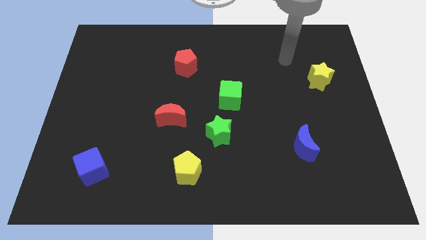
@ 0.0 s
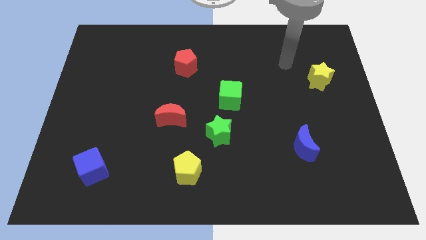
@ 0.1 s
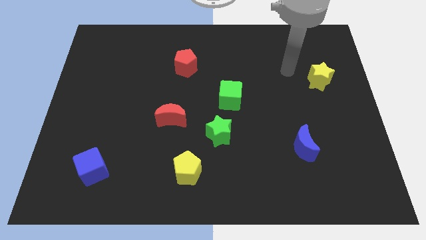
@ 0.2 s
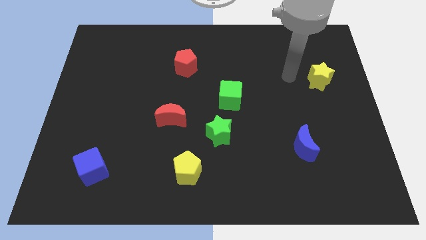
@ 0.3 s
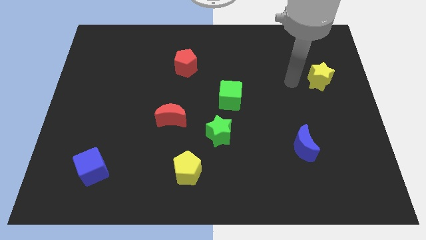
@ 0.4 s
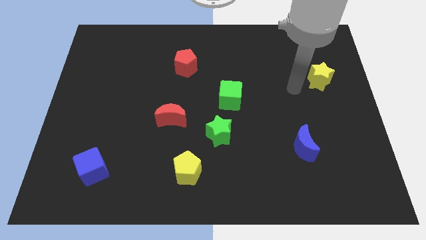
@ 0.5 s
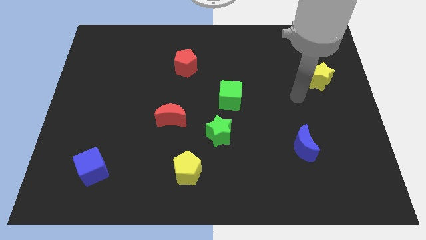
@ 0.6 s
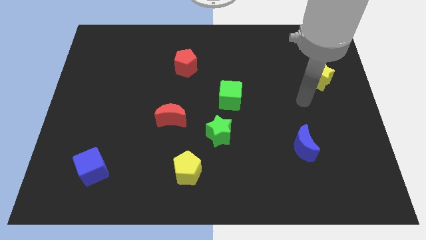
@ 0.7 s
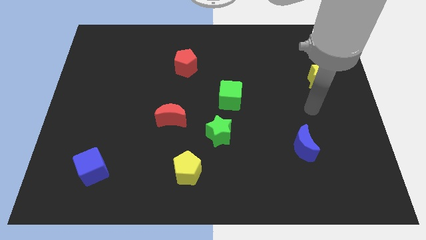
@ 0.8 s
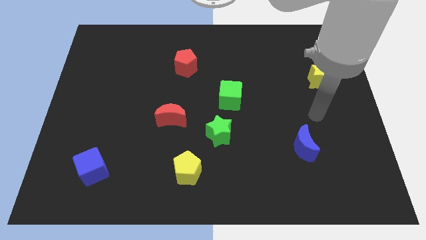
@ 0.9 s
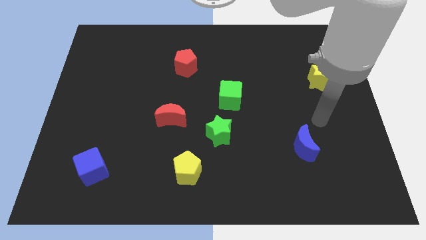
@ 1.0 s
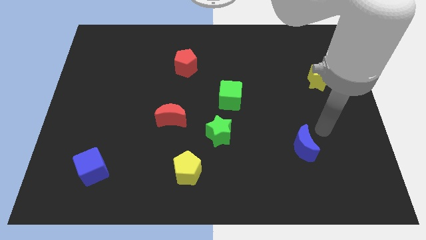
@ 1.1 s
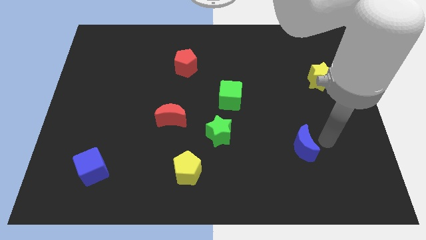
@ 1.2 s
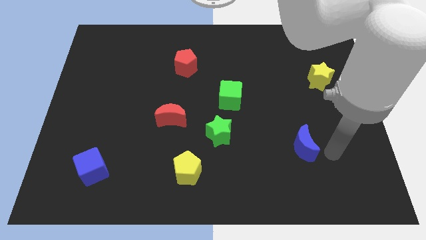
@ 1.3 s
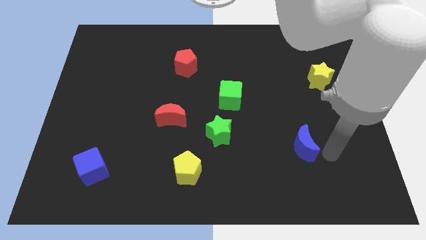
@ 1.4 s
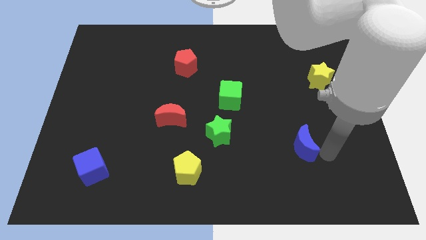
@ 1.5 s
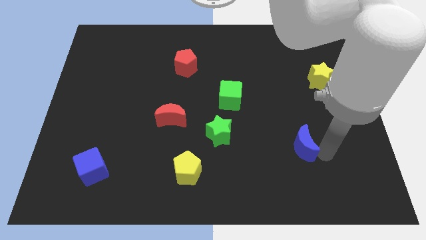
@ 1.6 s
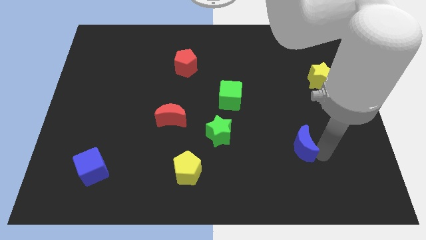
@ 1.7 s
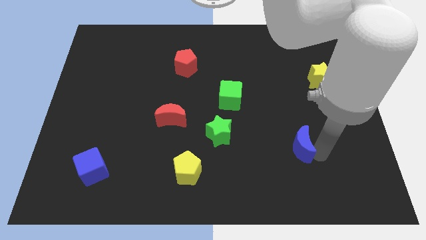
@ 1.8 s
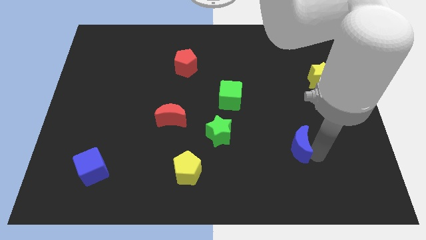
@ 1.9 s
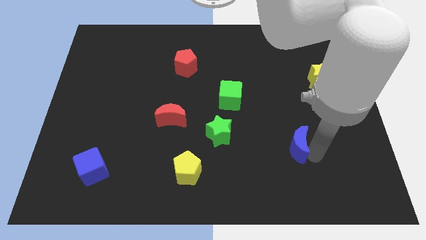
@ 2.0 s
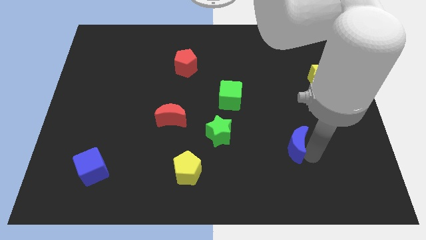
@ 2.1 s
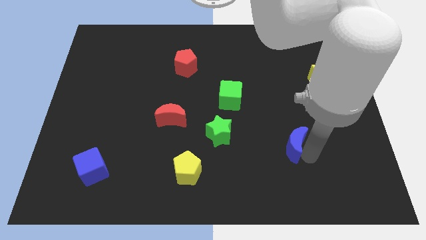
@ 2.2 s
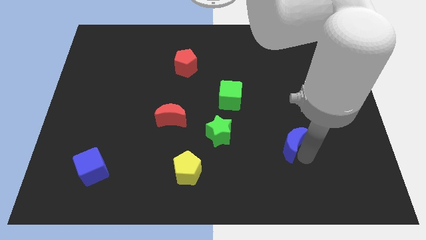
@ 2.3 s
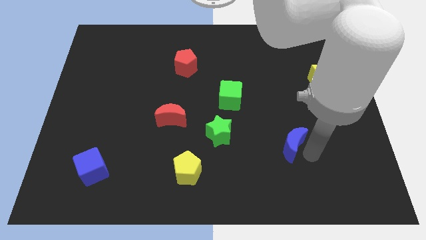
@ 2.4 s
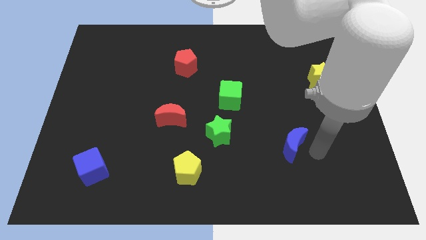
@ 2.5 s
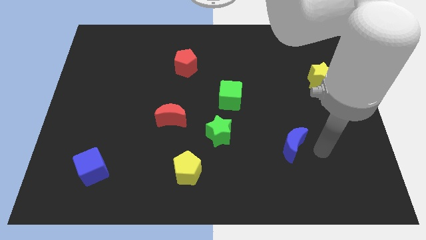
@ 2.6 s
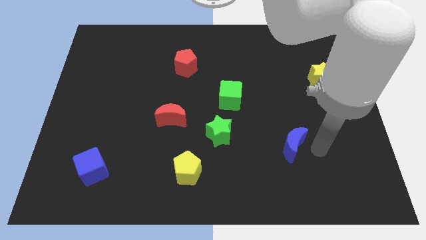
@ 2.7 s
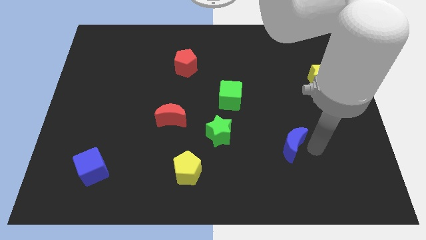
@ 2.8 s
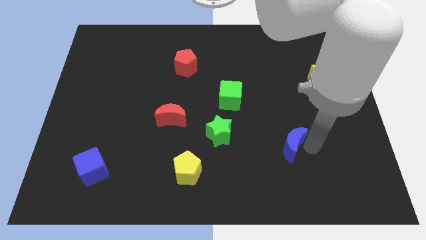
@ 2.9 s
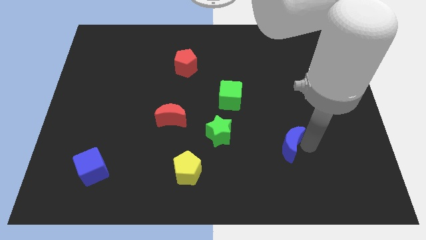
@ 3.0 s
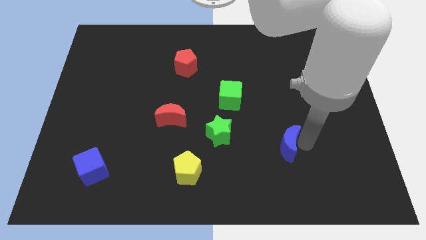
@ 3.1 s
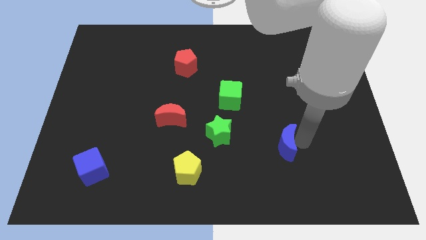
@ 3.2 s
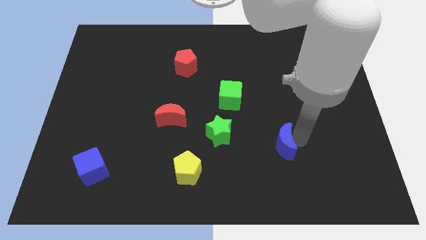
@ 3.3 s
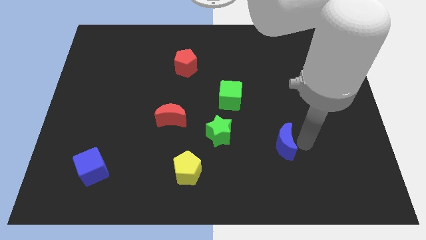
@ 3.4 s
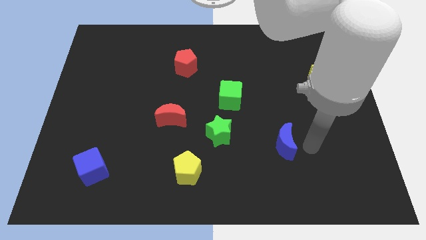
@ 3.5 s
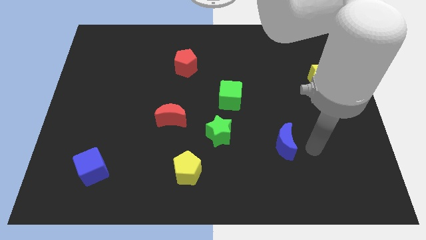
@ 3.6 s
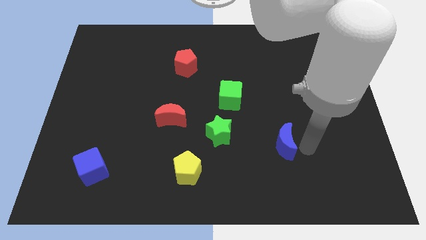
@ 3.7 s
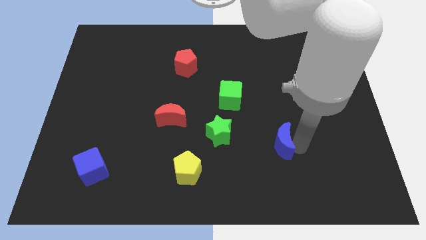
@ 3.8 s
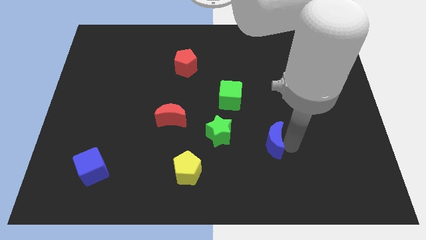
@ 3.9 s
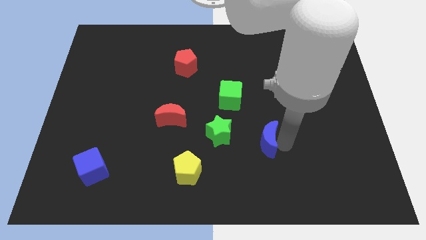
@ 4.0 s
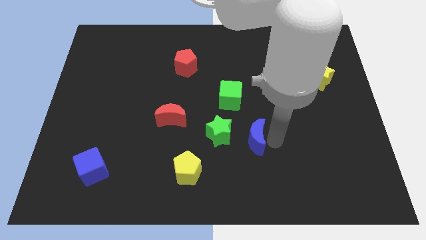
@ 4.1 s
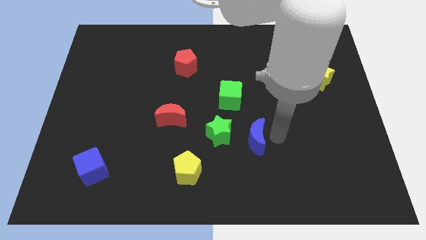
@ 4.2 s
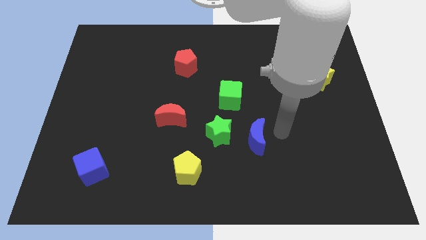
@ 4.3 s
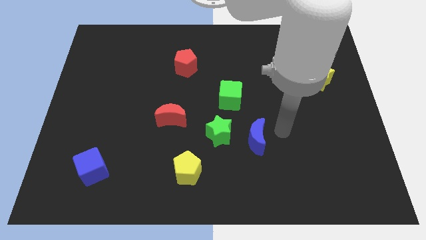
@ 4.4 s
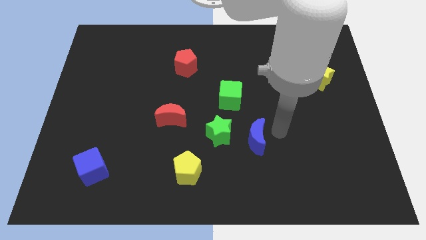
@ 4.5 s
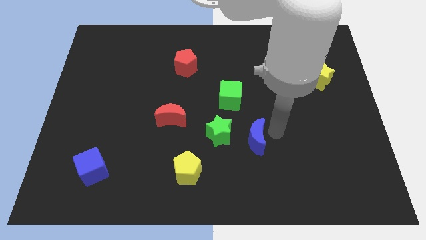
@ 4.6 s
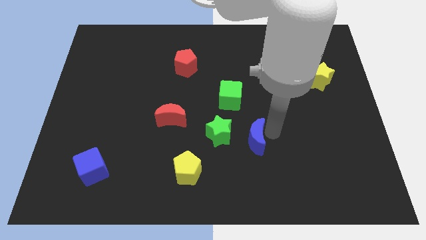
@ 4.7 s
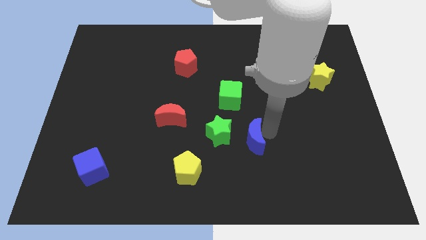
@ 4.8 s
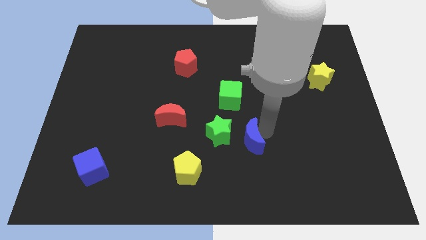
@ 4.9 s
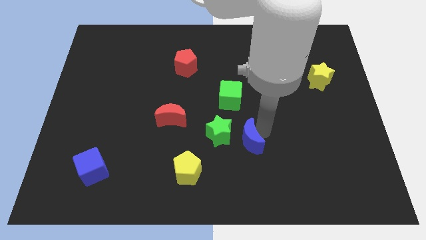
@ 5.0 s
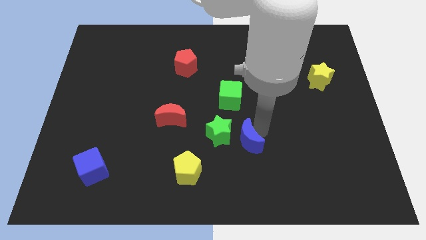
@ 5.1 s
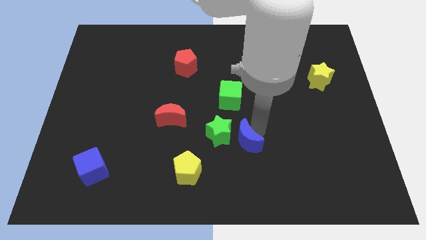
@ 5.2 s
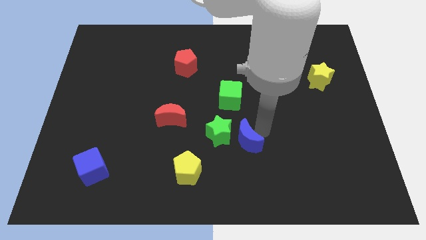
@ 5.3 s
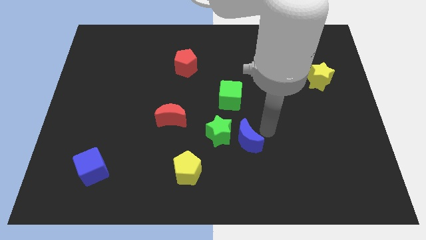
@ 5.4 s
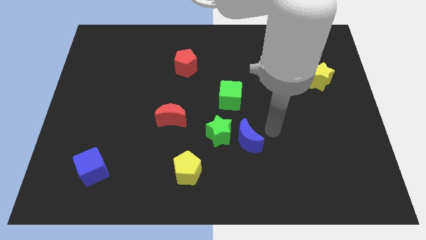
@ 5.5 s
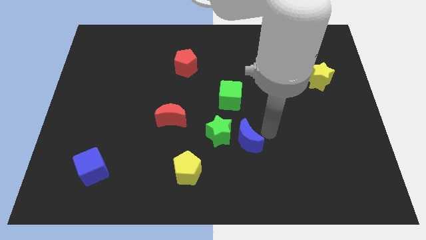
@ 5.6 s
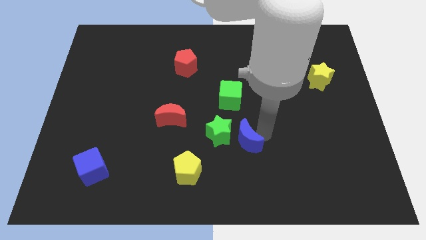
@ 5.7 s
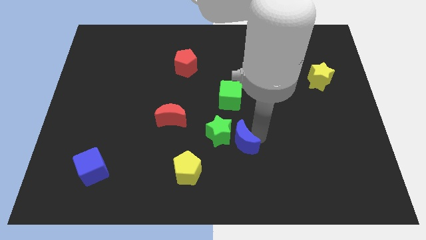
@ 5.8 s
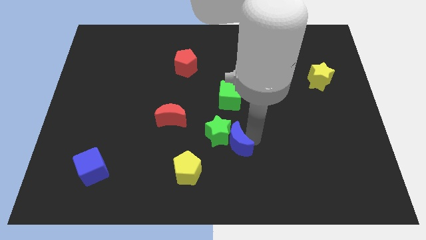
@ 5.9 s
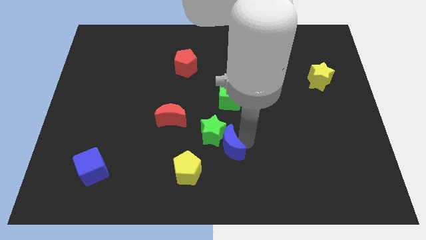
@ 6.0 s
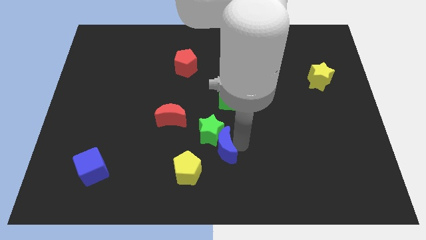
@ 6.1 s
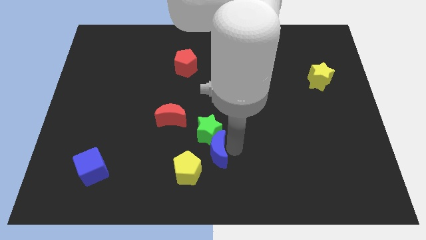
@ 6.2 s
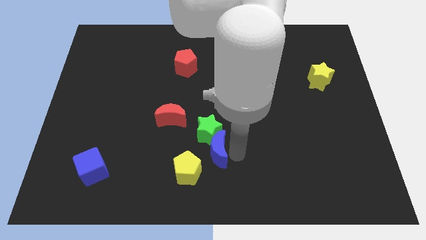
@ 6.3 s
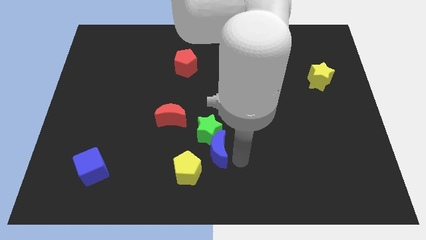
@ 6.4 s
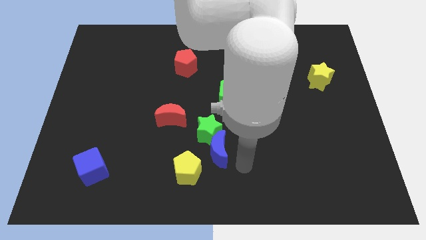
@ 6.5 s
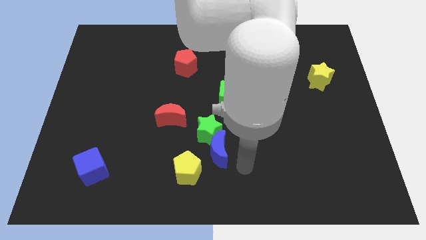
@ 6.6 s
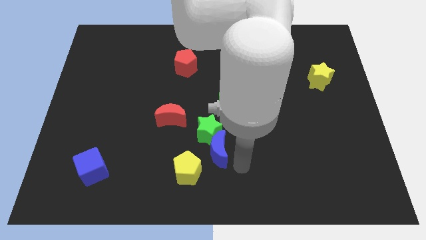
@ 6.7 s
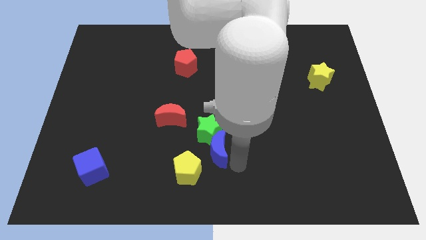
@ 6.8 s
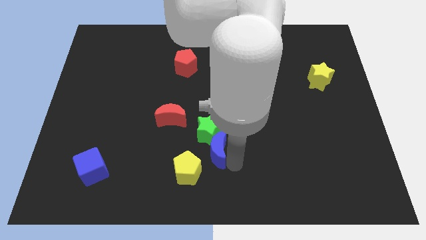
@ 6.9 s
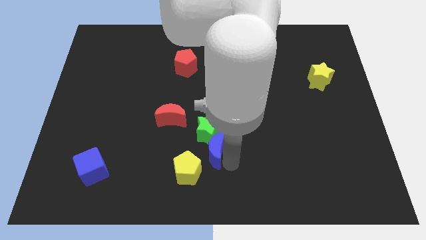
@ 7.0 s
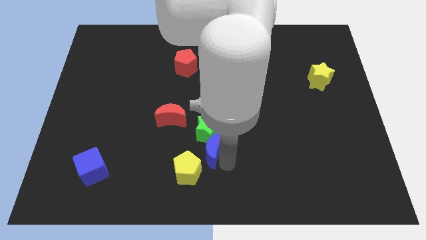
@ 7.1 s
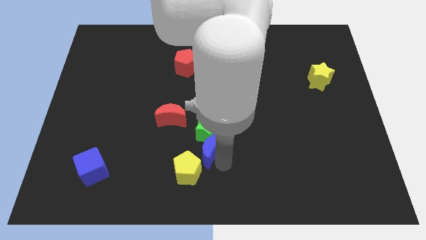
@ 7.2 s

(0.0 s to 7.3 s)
move the blue moon left

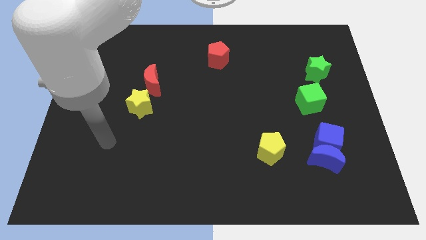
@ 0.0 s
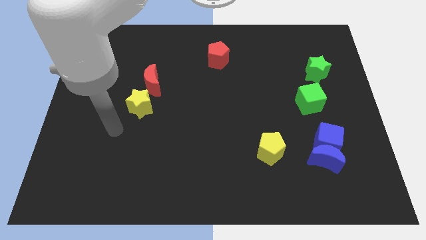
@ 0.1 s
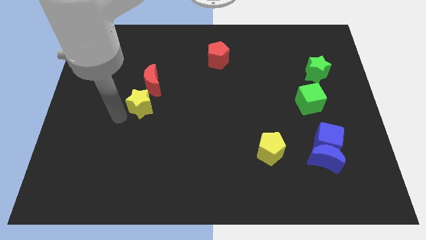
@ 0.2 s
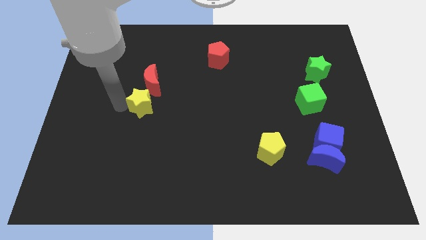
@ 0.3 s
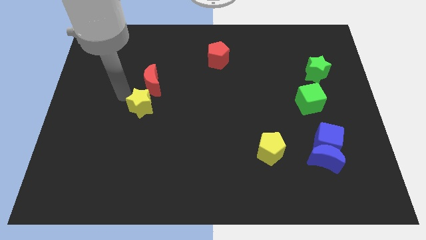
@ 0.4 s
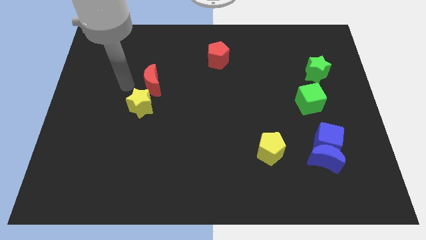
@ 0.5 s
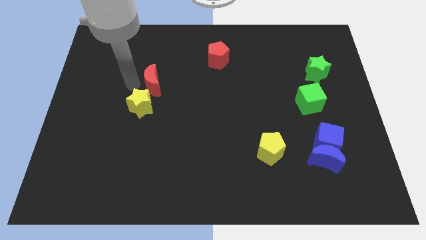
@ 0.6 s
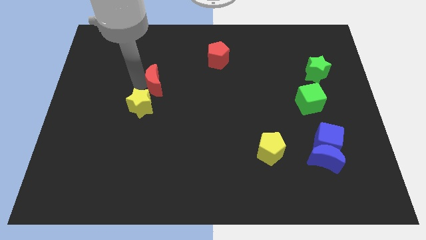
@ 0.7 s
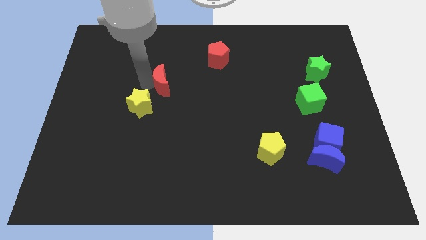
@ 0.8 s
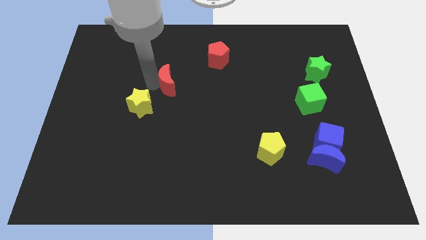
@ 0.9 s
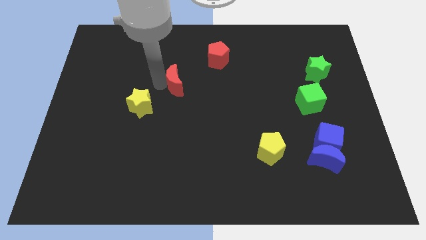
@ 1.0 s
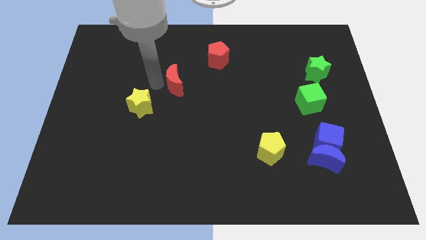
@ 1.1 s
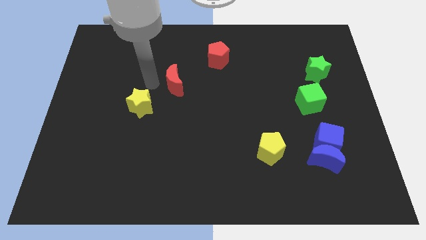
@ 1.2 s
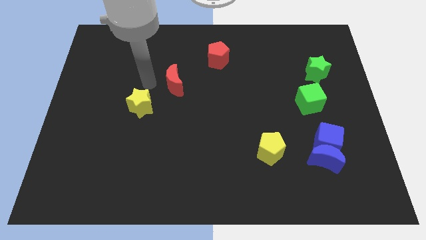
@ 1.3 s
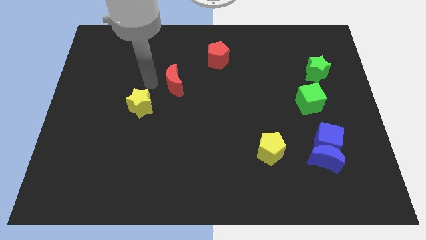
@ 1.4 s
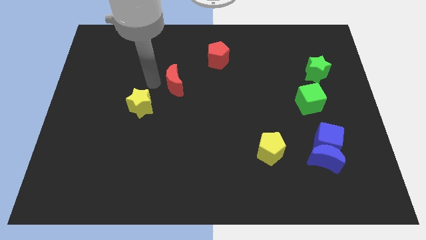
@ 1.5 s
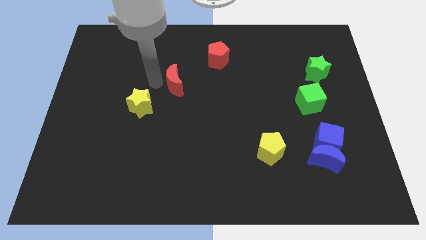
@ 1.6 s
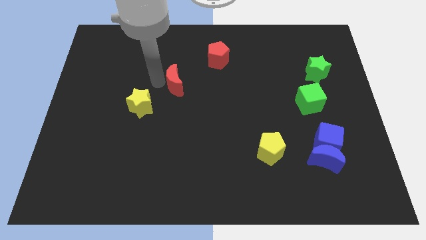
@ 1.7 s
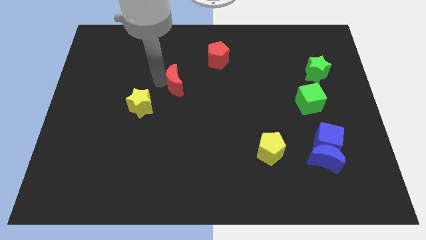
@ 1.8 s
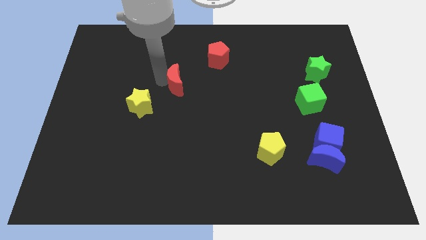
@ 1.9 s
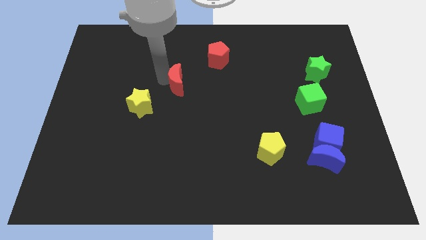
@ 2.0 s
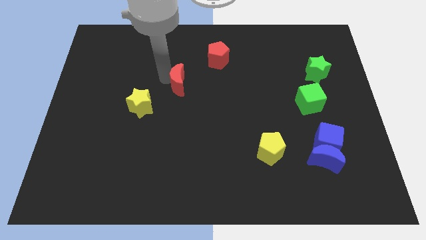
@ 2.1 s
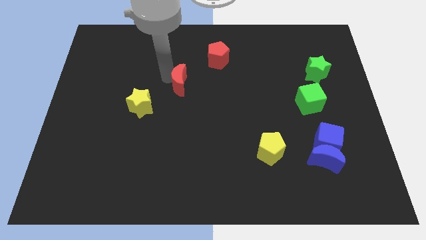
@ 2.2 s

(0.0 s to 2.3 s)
move the red moon somewhat right
